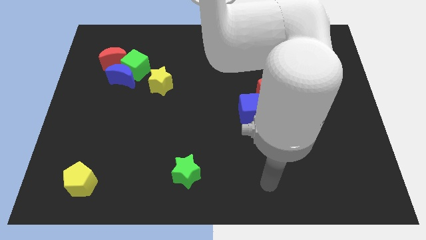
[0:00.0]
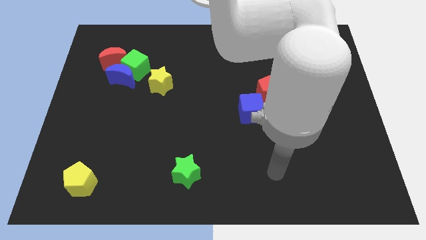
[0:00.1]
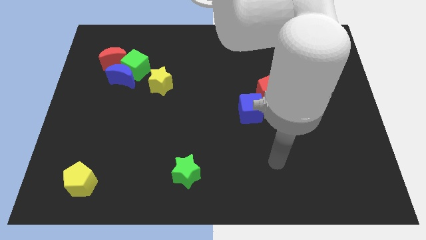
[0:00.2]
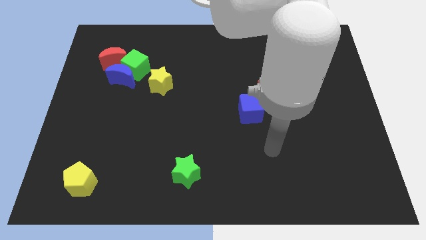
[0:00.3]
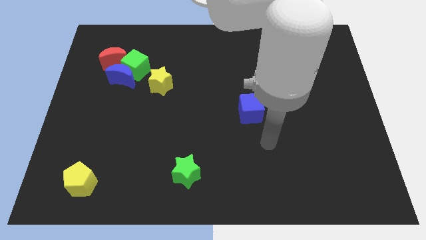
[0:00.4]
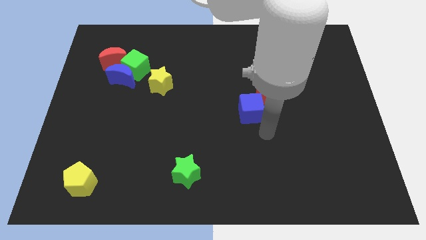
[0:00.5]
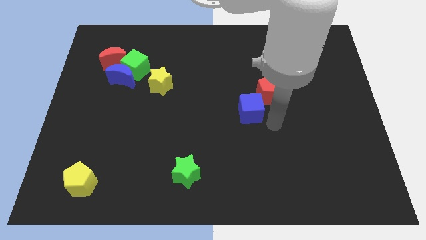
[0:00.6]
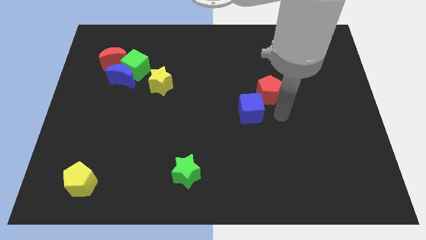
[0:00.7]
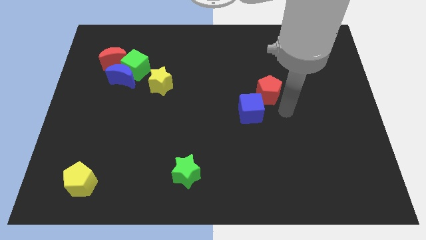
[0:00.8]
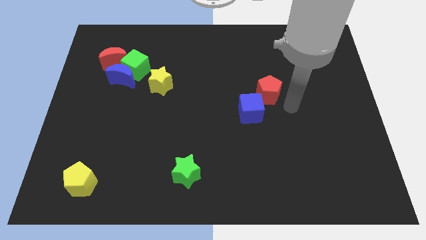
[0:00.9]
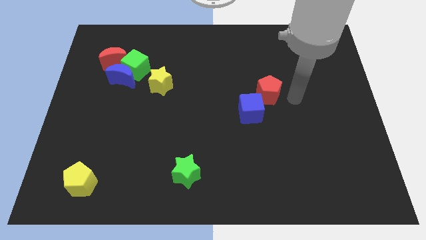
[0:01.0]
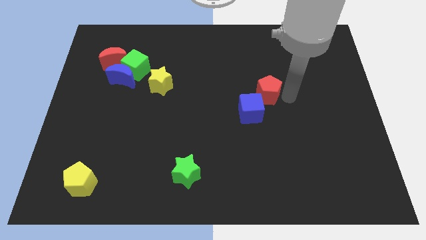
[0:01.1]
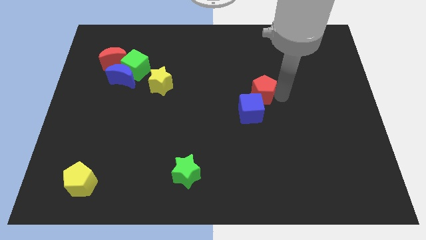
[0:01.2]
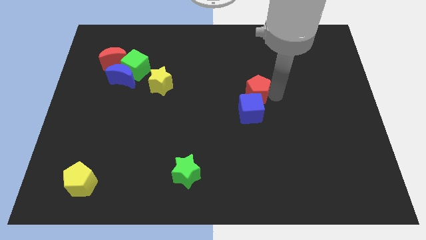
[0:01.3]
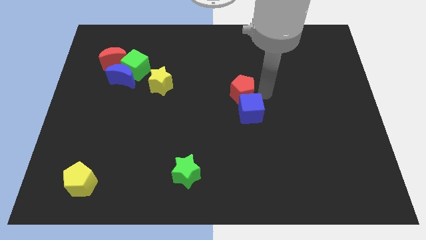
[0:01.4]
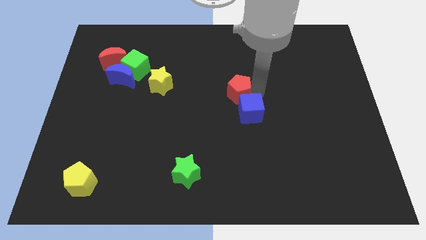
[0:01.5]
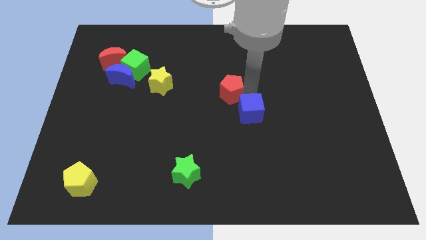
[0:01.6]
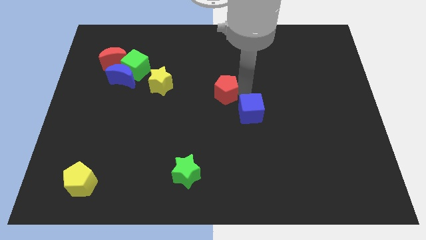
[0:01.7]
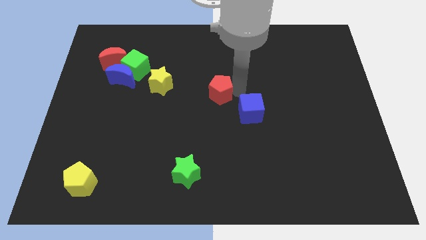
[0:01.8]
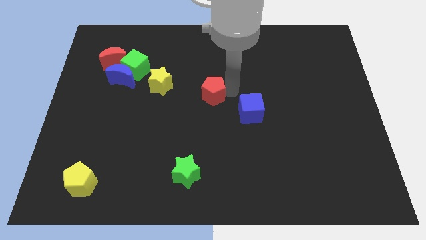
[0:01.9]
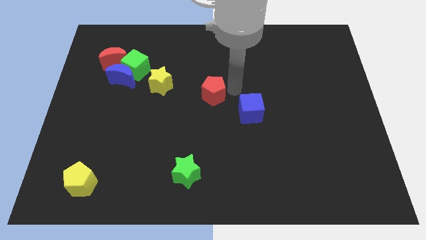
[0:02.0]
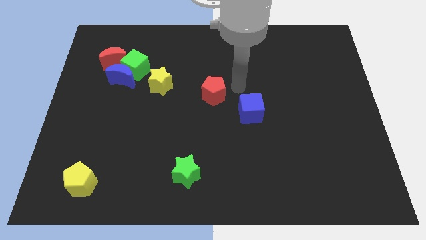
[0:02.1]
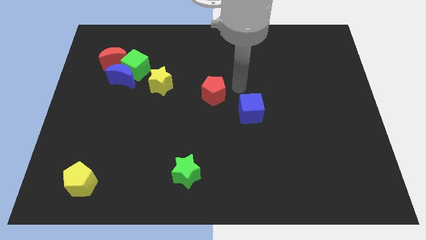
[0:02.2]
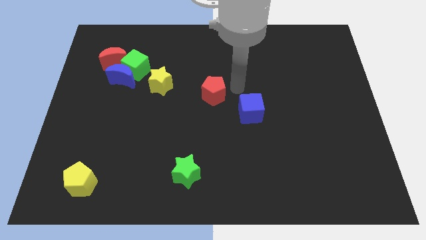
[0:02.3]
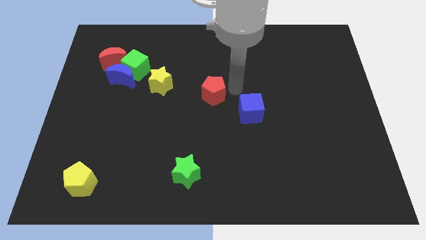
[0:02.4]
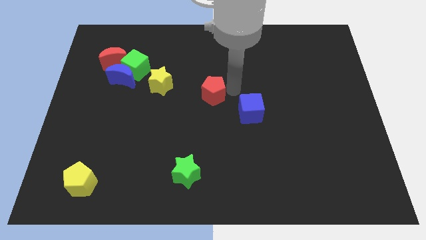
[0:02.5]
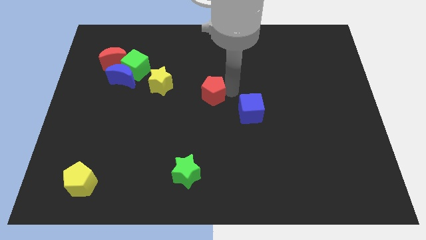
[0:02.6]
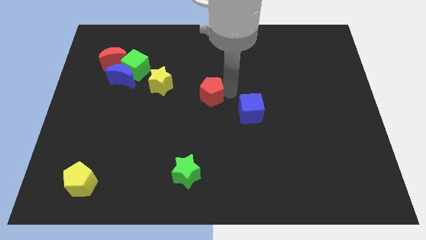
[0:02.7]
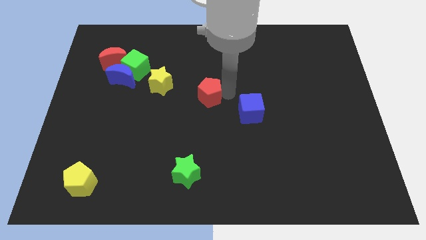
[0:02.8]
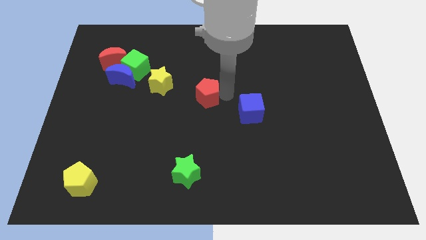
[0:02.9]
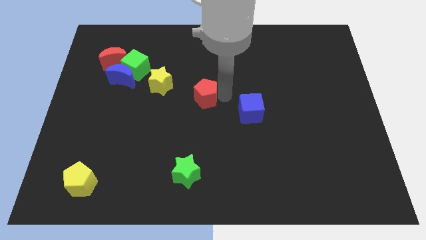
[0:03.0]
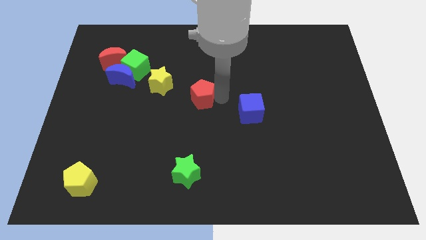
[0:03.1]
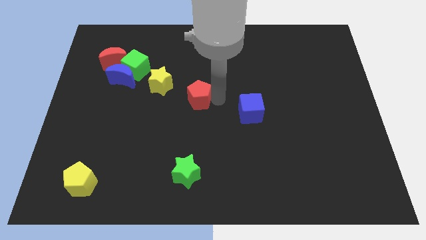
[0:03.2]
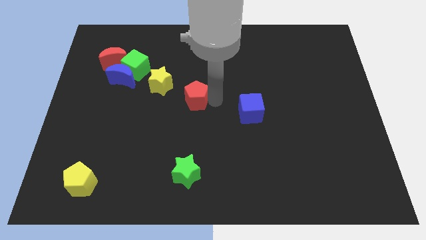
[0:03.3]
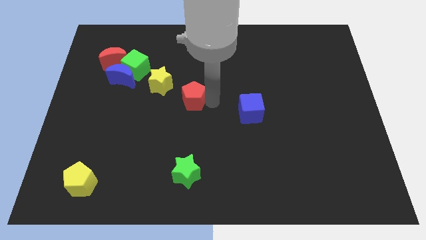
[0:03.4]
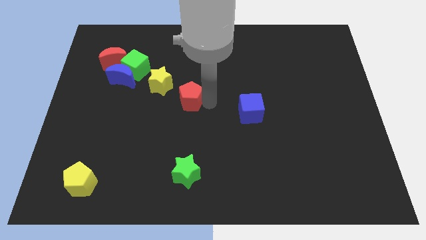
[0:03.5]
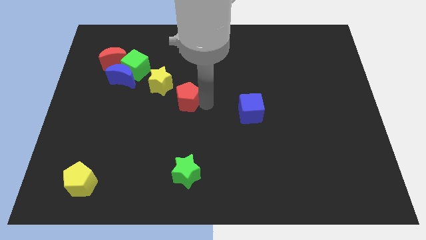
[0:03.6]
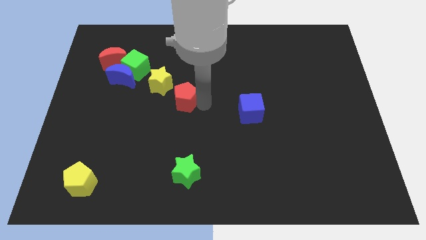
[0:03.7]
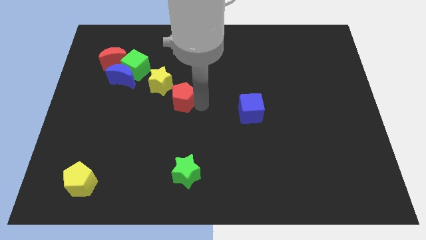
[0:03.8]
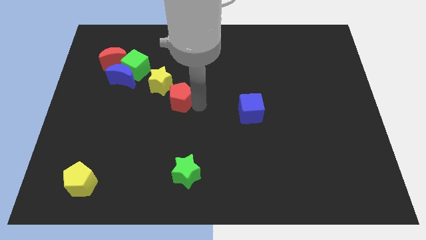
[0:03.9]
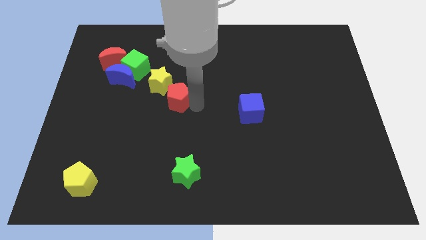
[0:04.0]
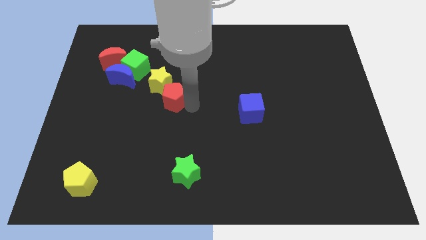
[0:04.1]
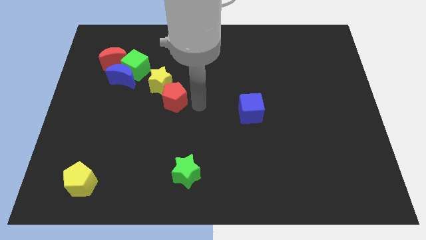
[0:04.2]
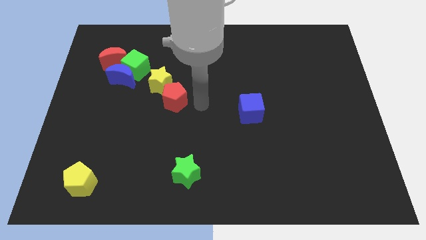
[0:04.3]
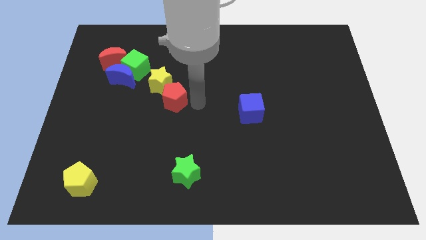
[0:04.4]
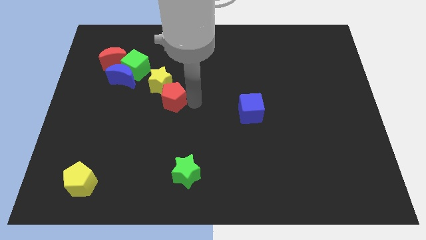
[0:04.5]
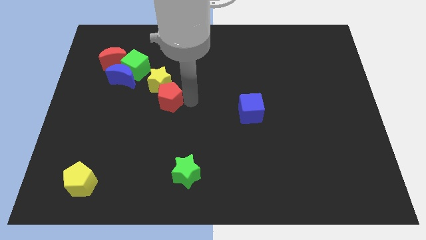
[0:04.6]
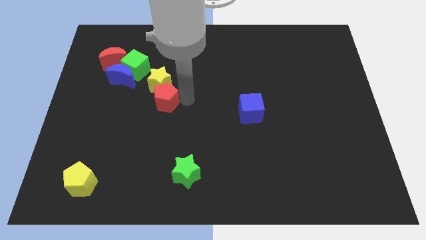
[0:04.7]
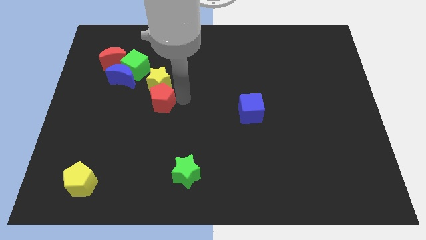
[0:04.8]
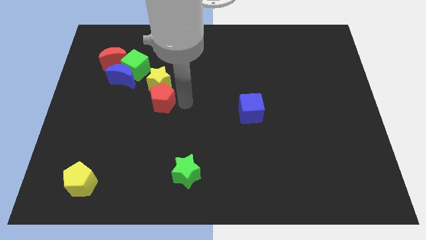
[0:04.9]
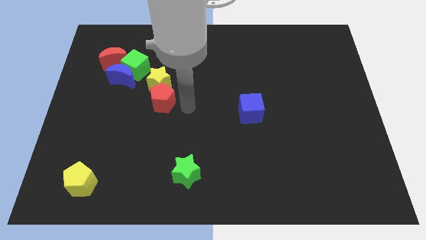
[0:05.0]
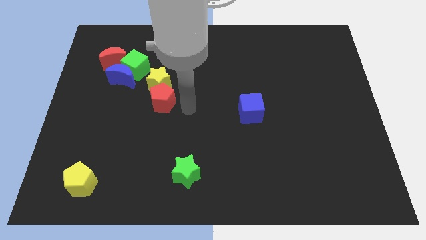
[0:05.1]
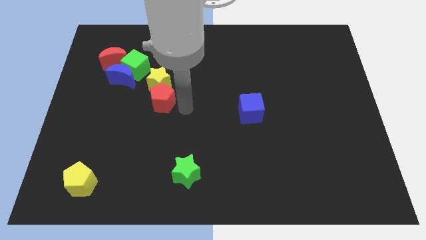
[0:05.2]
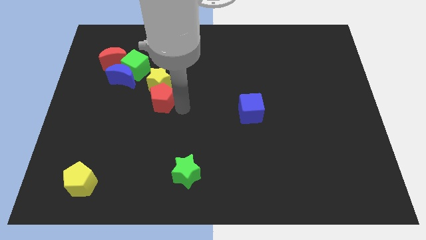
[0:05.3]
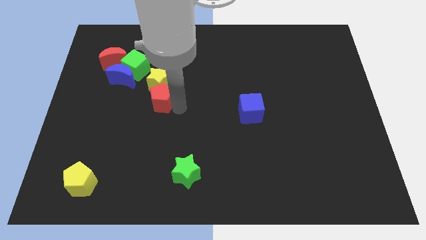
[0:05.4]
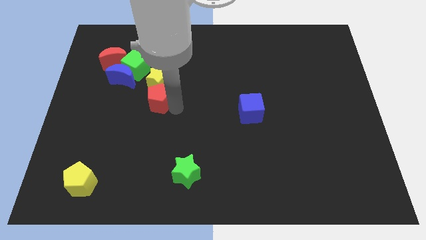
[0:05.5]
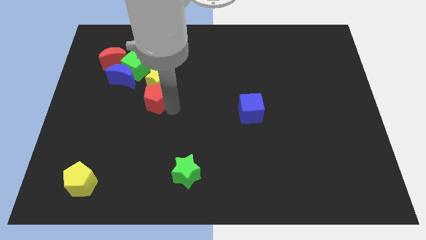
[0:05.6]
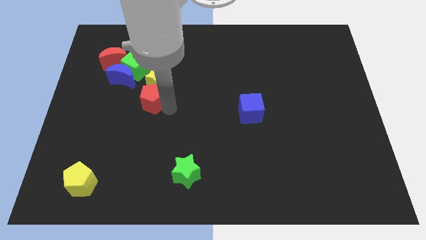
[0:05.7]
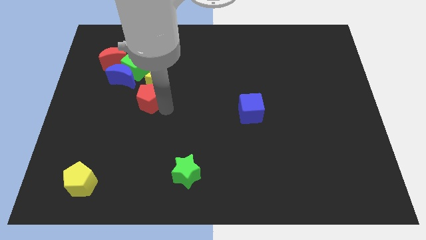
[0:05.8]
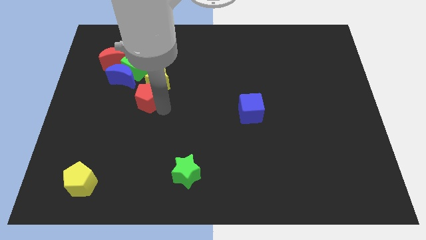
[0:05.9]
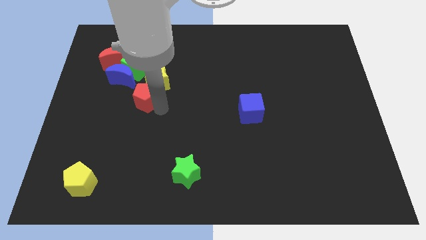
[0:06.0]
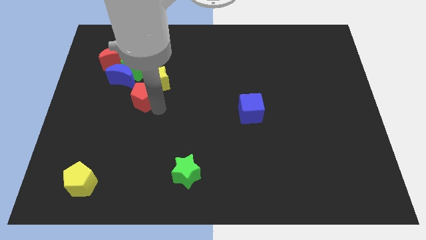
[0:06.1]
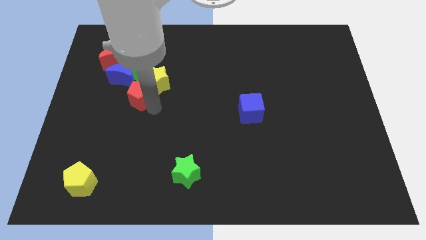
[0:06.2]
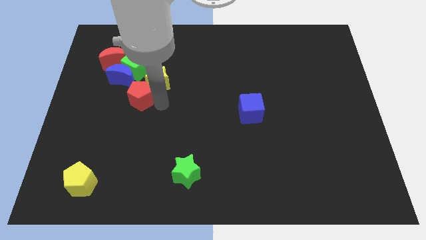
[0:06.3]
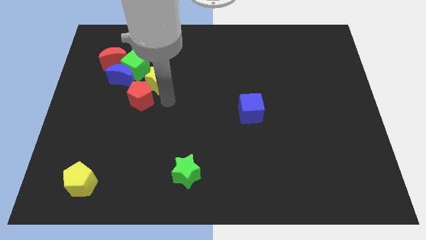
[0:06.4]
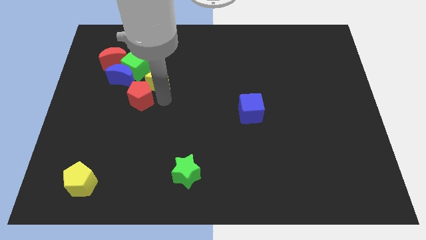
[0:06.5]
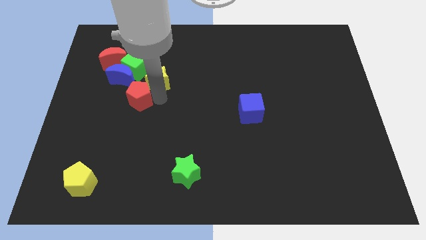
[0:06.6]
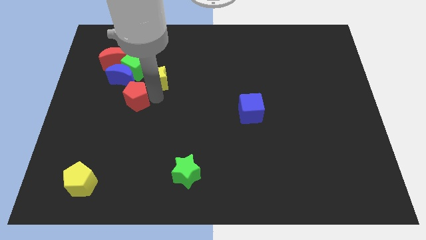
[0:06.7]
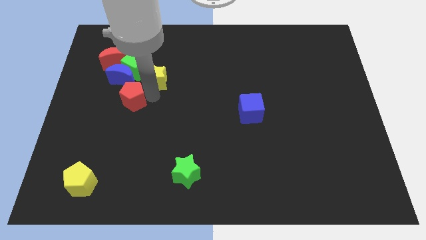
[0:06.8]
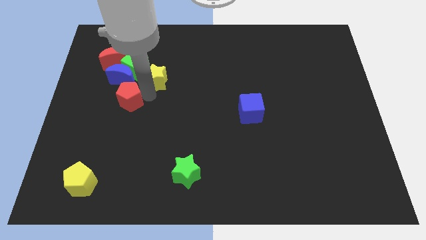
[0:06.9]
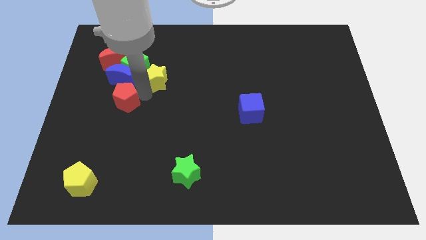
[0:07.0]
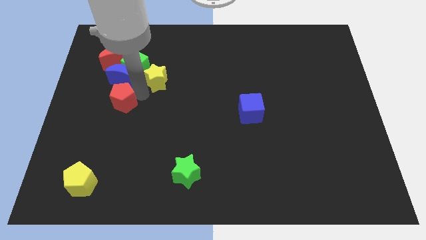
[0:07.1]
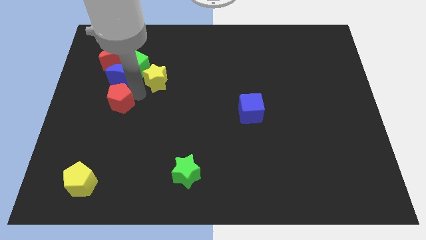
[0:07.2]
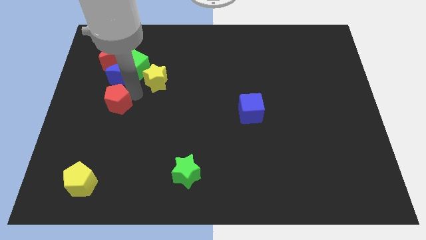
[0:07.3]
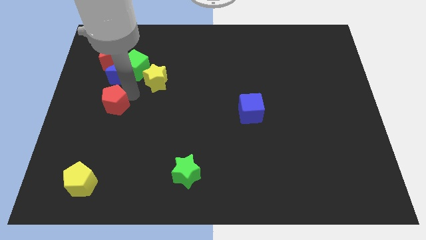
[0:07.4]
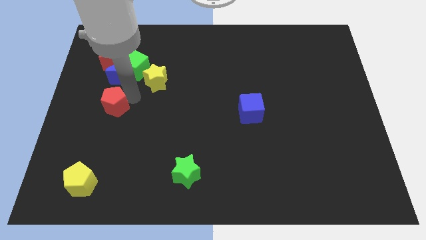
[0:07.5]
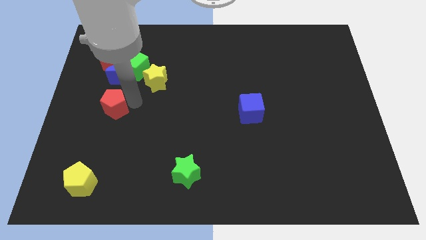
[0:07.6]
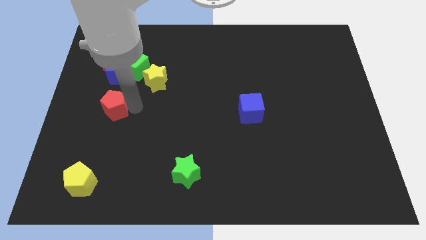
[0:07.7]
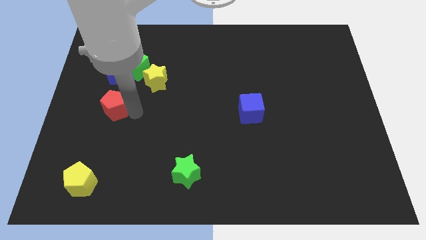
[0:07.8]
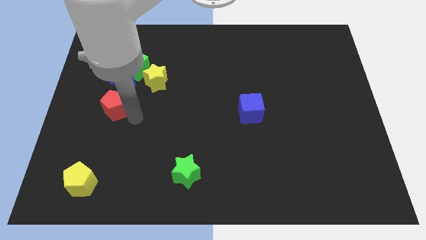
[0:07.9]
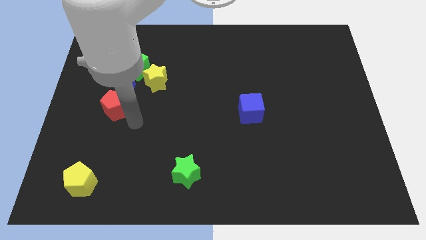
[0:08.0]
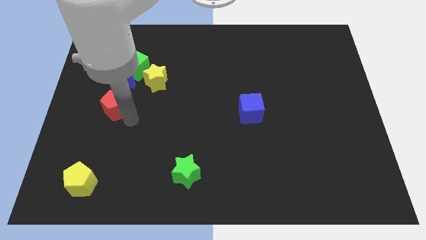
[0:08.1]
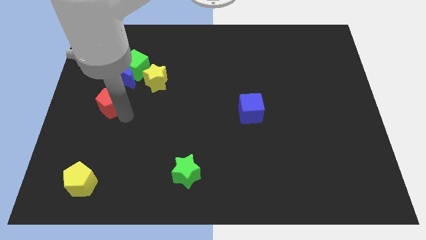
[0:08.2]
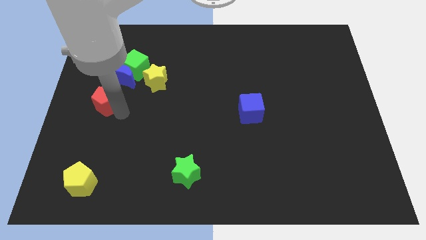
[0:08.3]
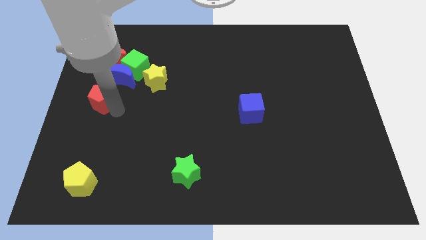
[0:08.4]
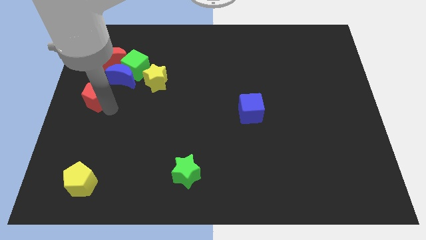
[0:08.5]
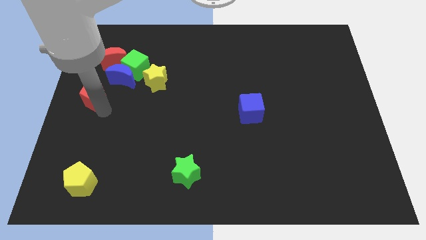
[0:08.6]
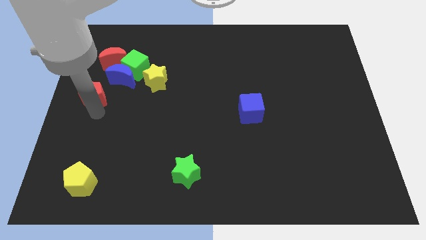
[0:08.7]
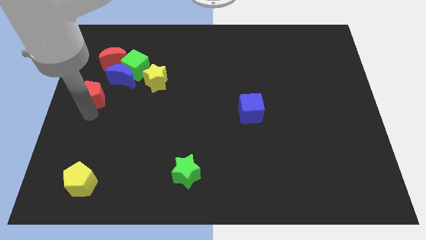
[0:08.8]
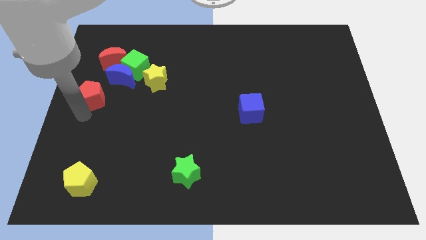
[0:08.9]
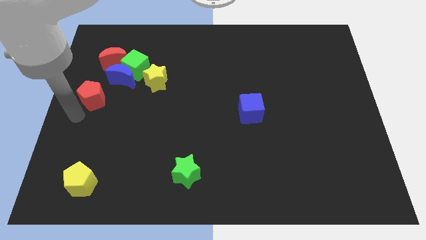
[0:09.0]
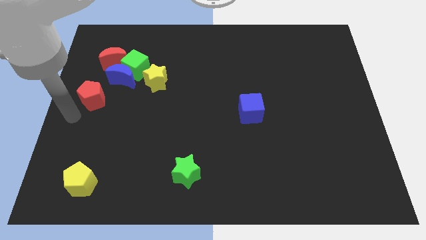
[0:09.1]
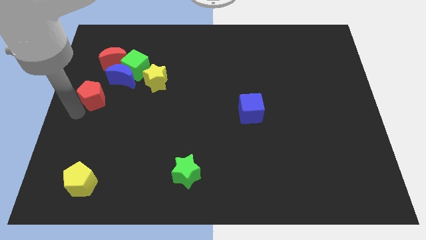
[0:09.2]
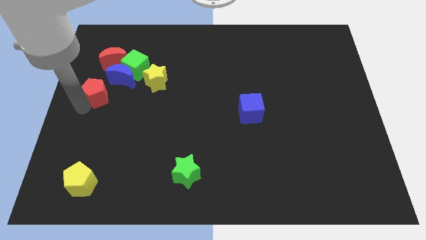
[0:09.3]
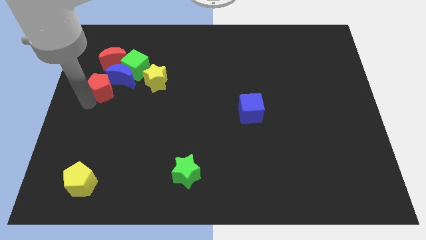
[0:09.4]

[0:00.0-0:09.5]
put the red pentagon to the left of the yellow star
